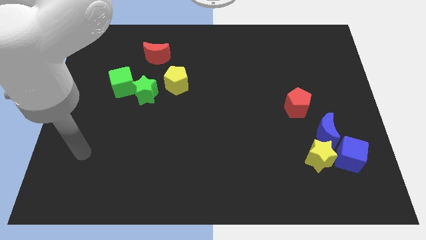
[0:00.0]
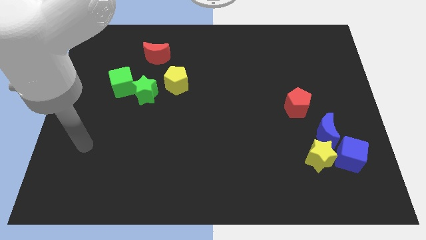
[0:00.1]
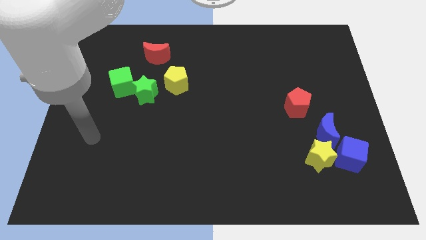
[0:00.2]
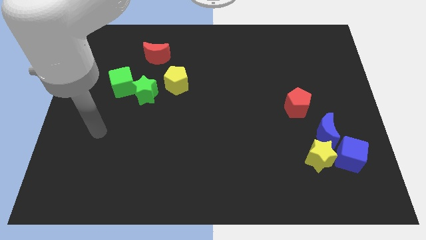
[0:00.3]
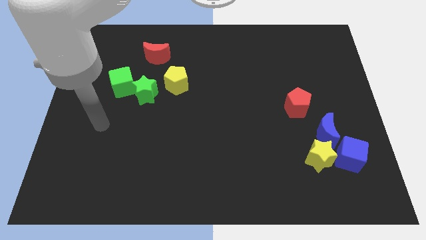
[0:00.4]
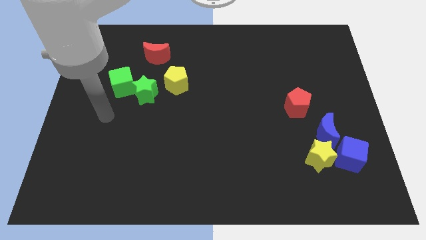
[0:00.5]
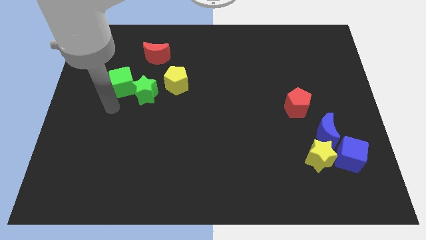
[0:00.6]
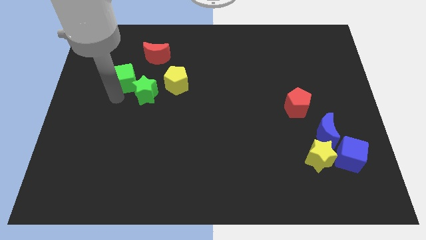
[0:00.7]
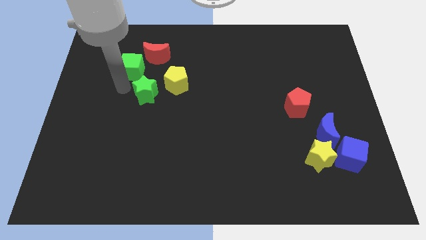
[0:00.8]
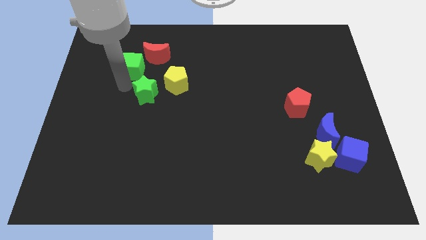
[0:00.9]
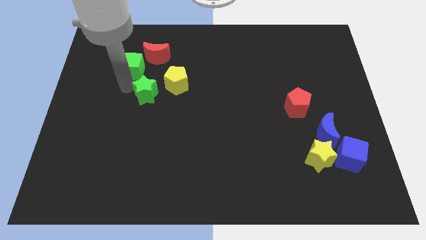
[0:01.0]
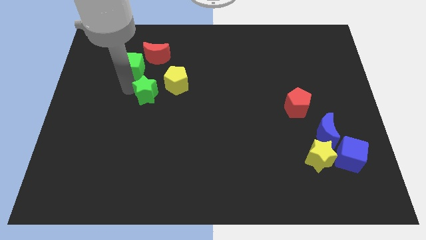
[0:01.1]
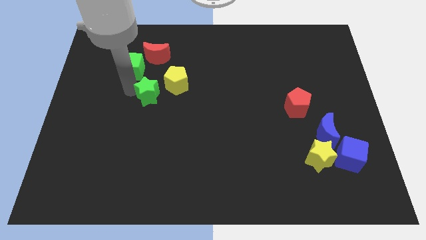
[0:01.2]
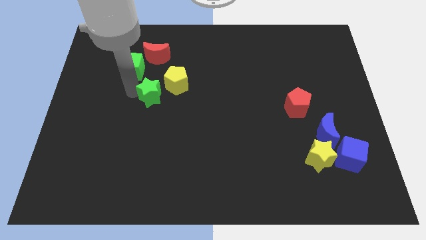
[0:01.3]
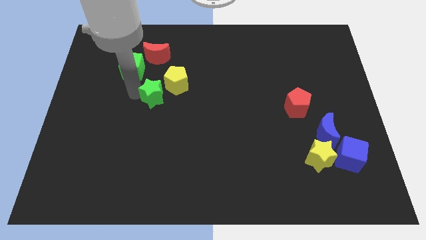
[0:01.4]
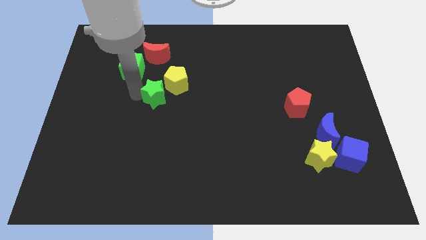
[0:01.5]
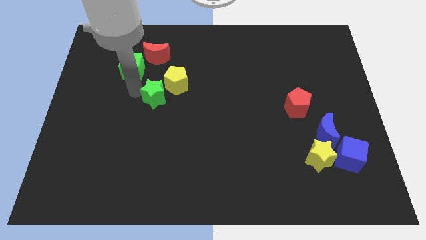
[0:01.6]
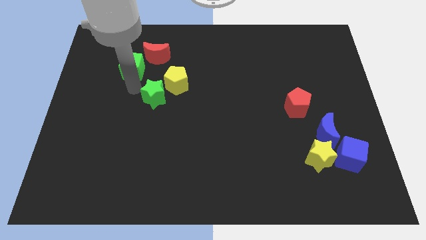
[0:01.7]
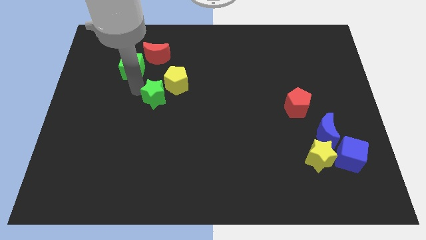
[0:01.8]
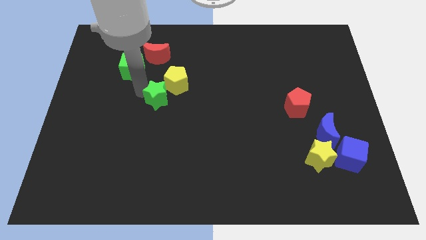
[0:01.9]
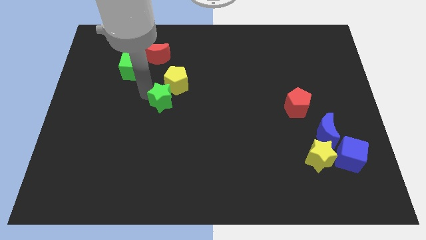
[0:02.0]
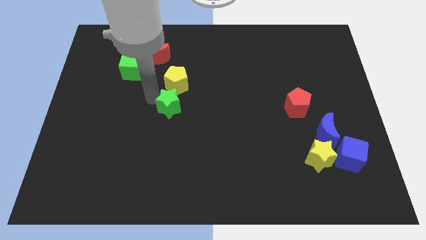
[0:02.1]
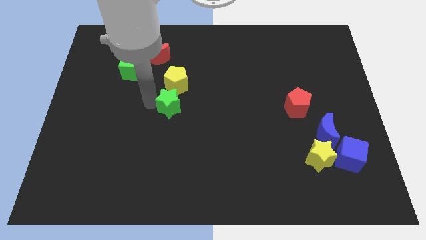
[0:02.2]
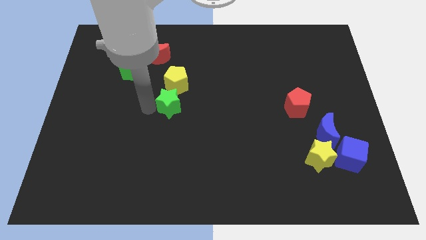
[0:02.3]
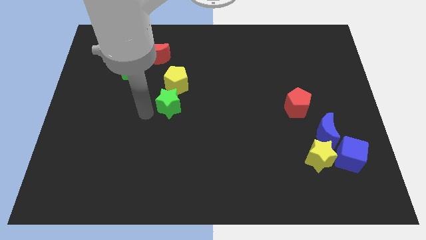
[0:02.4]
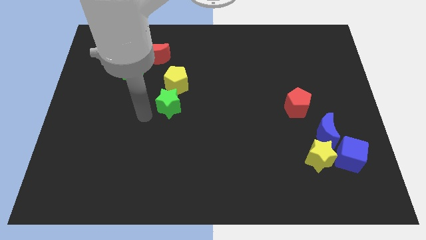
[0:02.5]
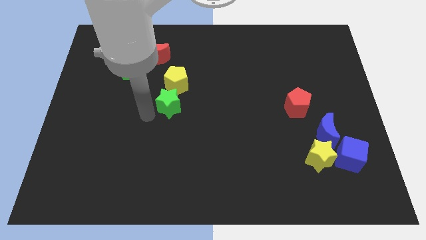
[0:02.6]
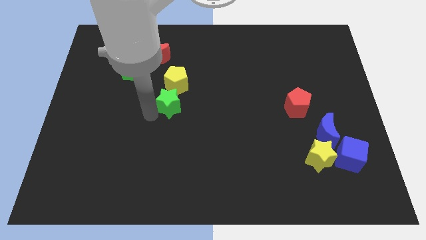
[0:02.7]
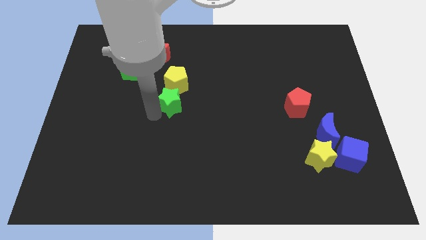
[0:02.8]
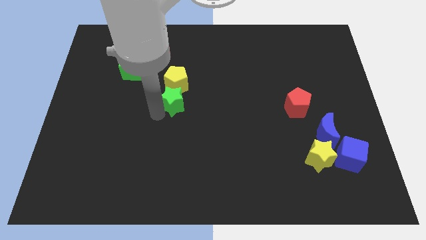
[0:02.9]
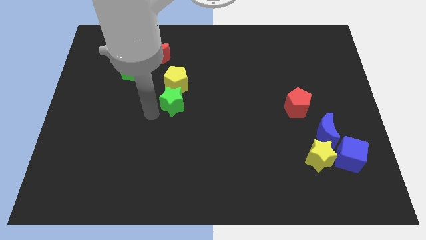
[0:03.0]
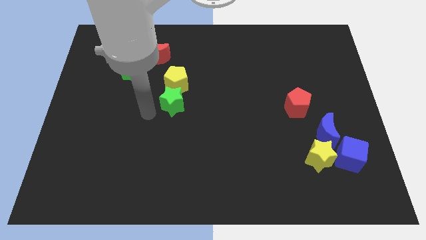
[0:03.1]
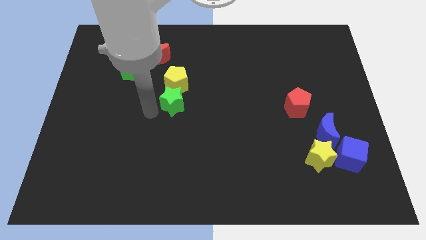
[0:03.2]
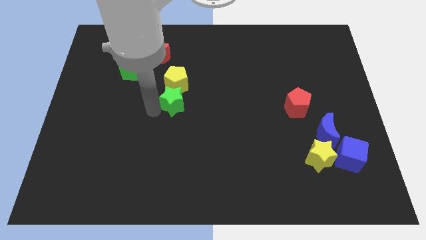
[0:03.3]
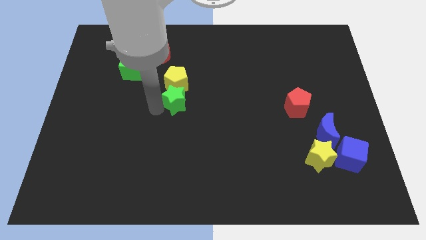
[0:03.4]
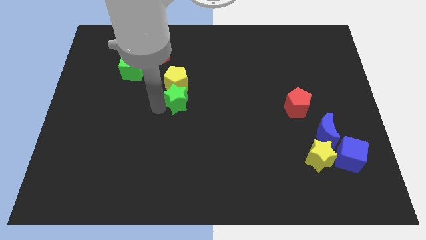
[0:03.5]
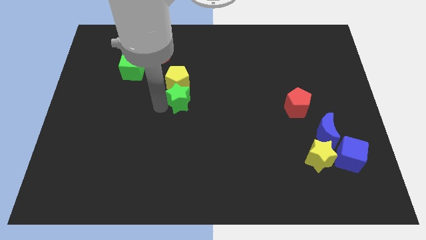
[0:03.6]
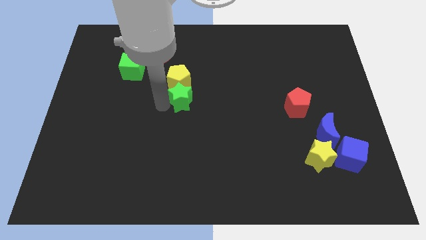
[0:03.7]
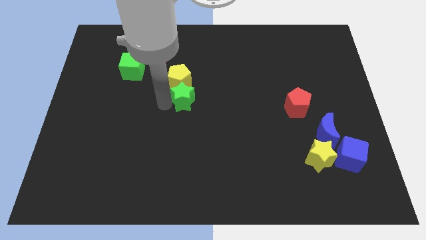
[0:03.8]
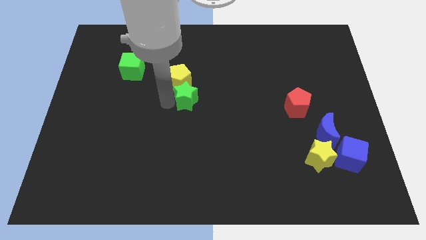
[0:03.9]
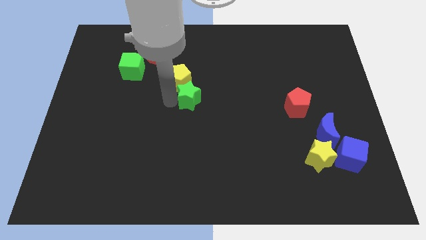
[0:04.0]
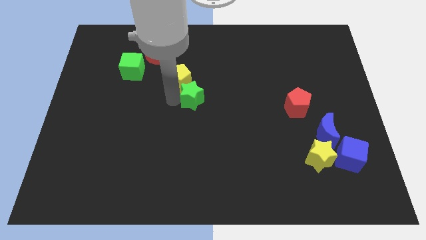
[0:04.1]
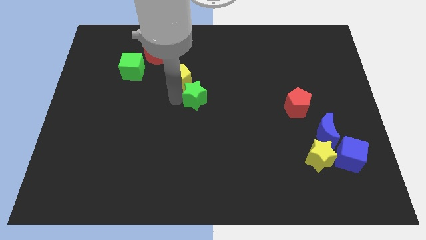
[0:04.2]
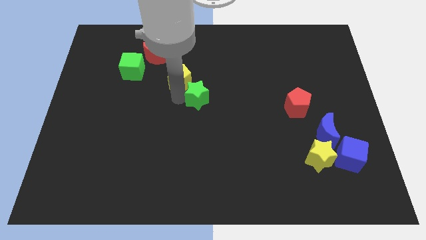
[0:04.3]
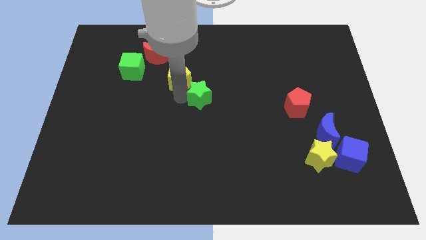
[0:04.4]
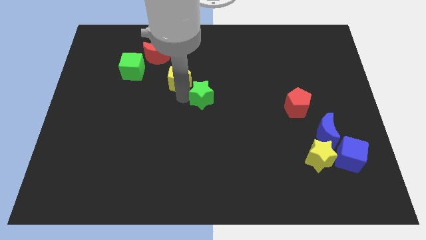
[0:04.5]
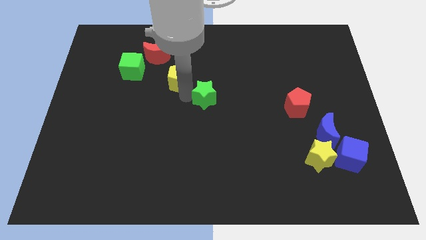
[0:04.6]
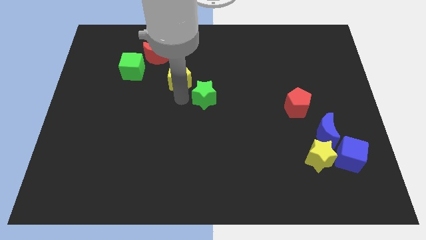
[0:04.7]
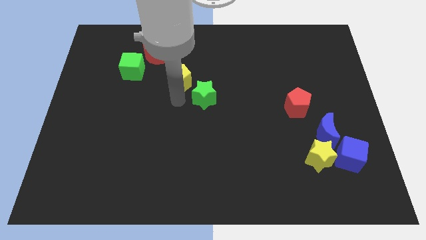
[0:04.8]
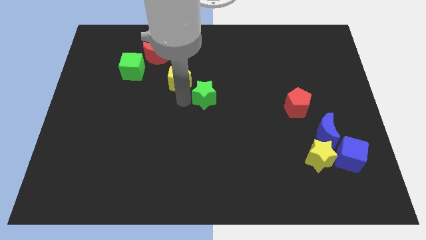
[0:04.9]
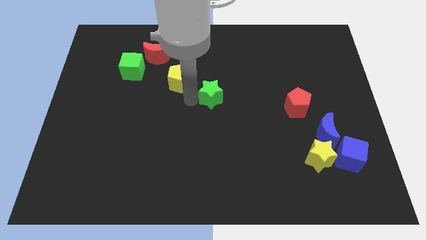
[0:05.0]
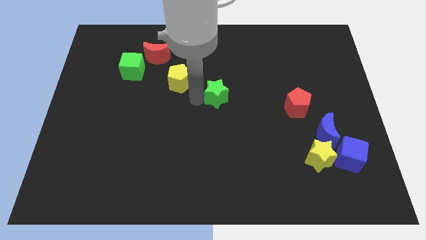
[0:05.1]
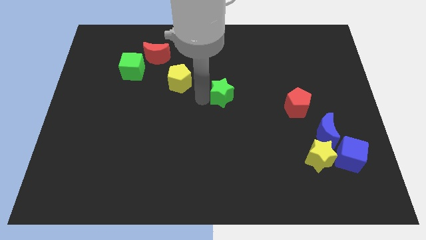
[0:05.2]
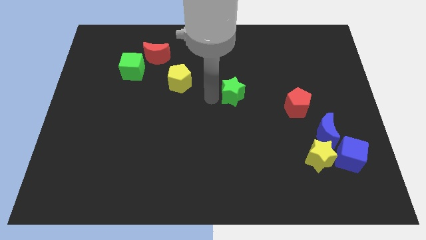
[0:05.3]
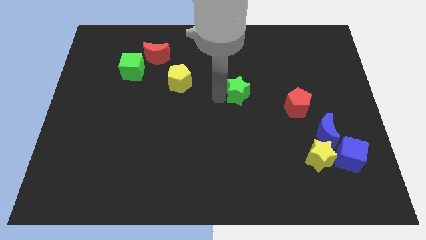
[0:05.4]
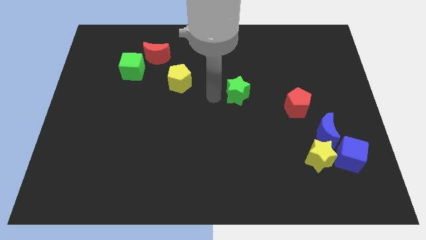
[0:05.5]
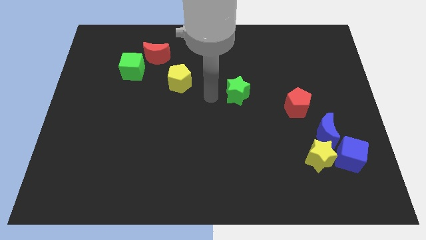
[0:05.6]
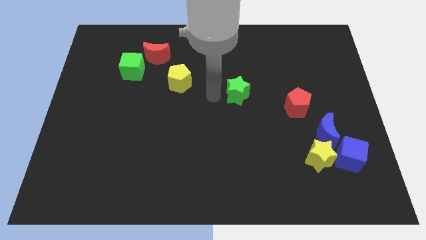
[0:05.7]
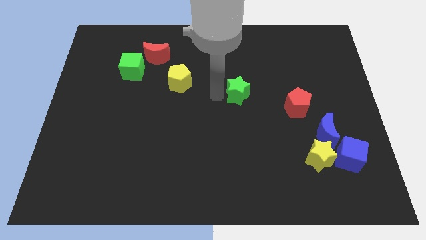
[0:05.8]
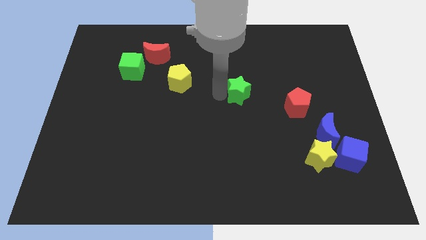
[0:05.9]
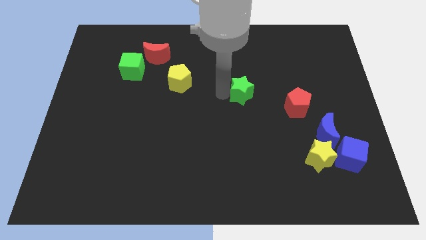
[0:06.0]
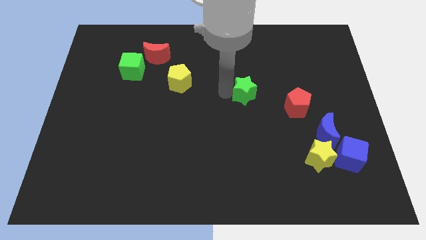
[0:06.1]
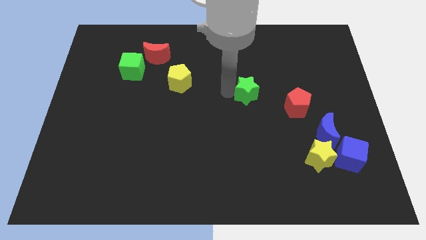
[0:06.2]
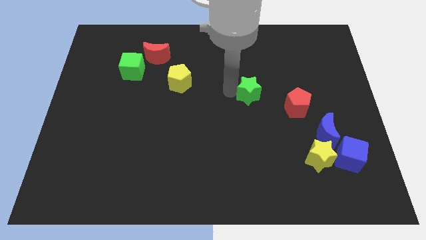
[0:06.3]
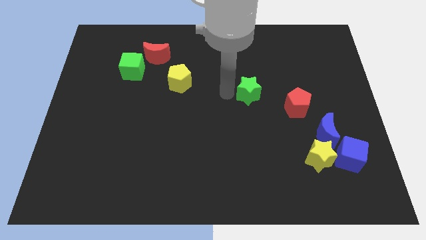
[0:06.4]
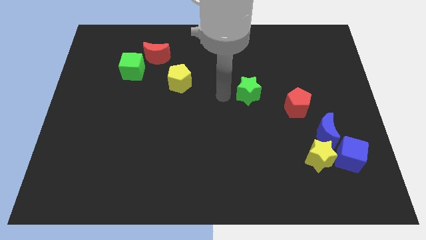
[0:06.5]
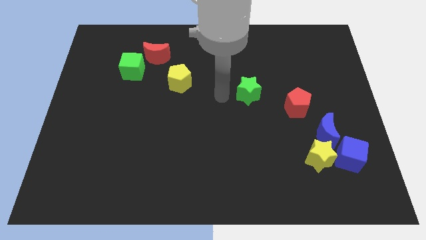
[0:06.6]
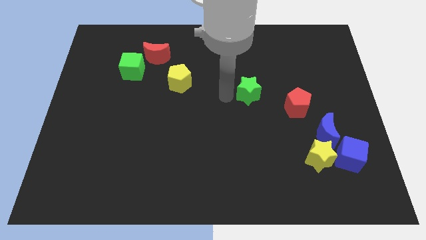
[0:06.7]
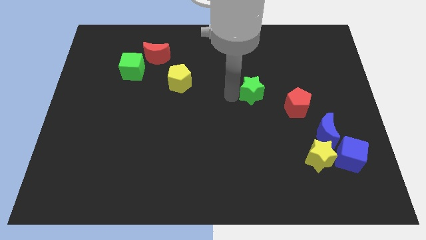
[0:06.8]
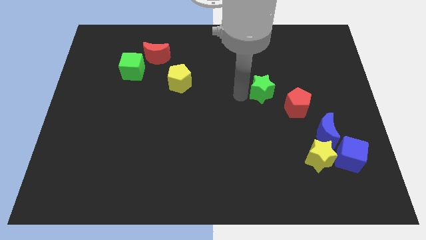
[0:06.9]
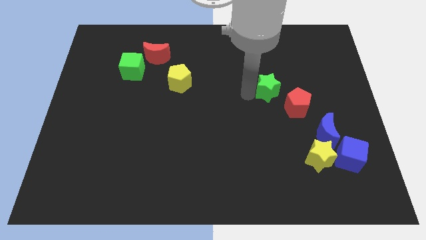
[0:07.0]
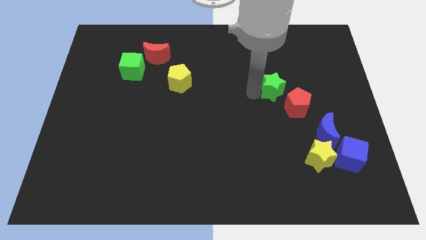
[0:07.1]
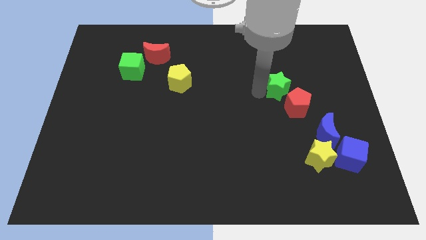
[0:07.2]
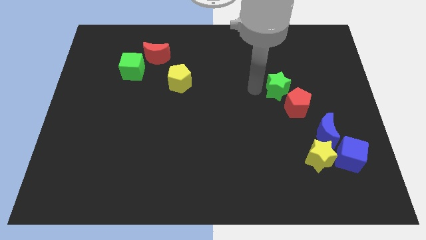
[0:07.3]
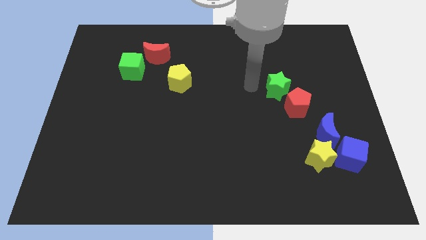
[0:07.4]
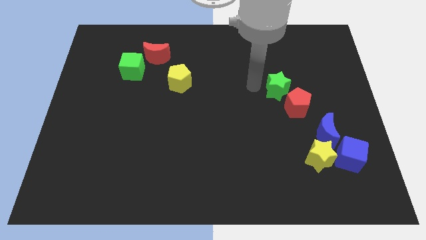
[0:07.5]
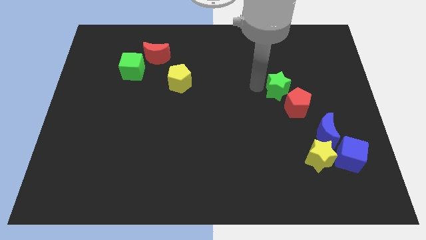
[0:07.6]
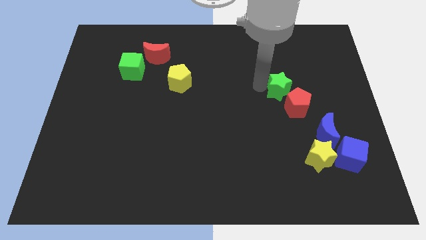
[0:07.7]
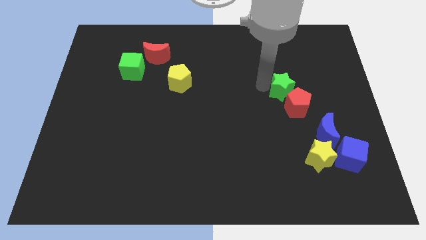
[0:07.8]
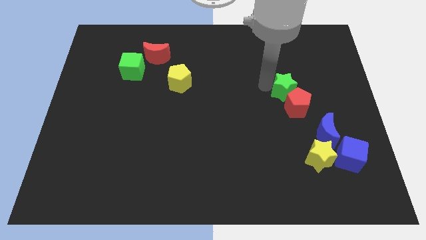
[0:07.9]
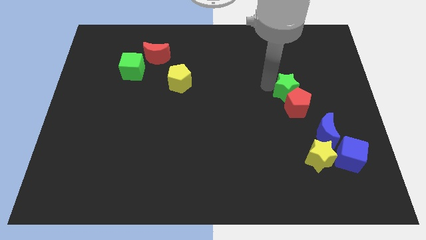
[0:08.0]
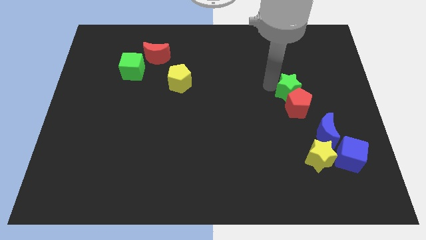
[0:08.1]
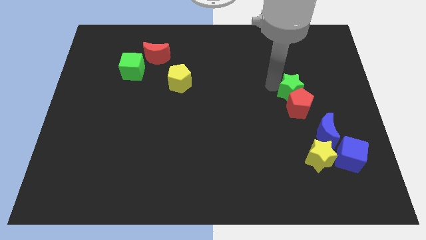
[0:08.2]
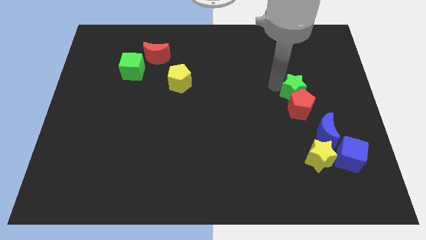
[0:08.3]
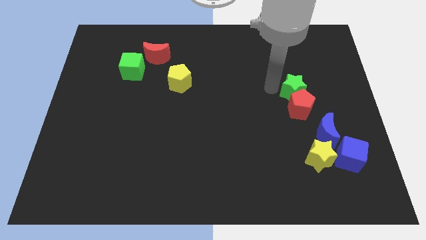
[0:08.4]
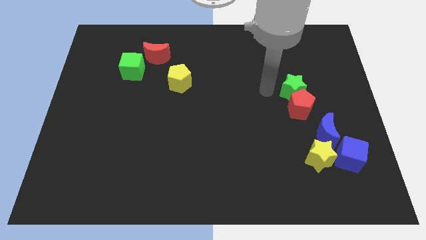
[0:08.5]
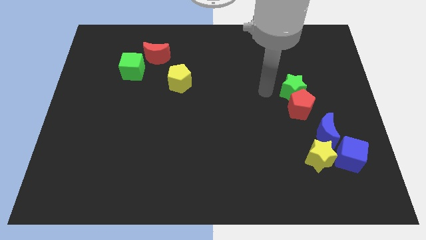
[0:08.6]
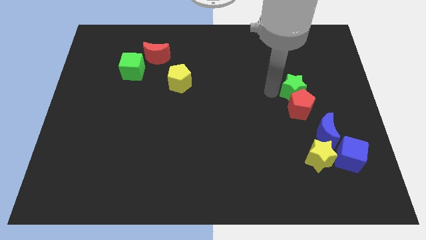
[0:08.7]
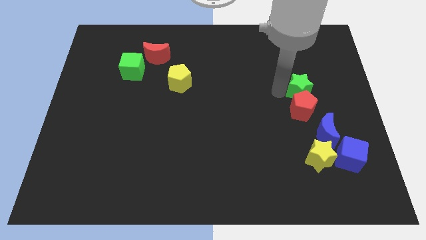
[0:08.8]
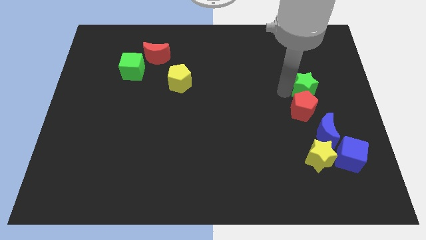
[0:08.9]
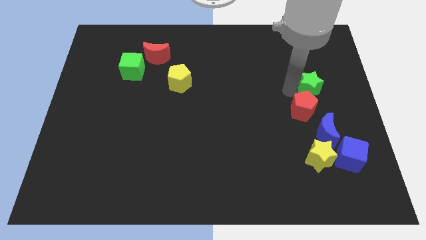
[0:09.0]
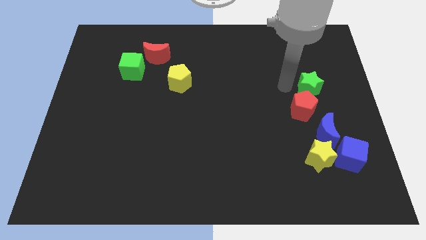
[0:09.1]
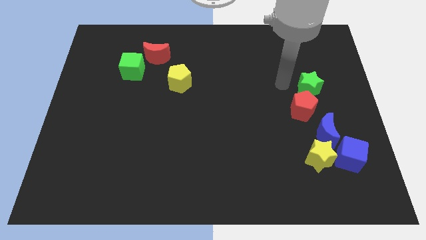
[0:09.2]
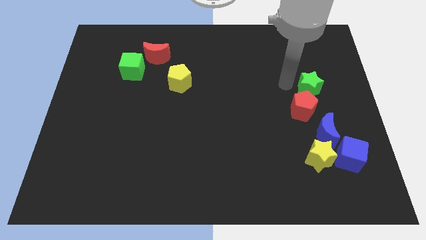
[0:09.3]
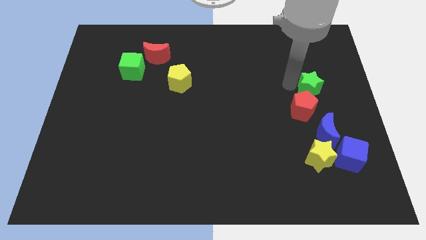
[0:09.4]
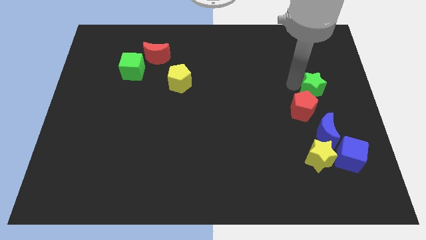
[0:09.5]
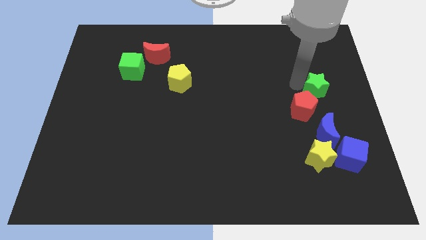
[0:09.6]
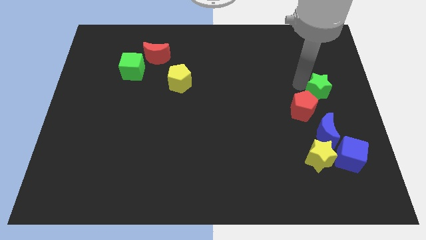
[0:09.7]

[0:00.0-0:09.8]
push the green star to the center right
